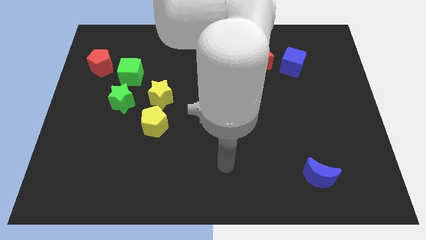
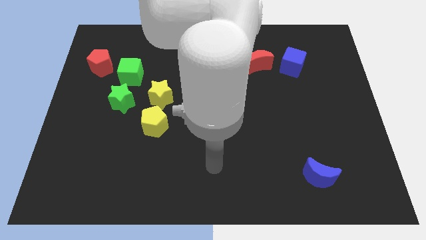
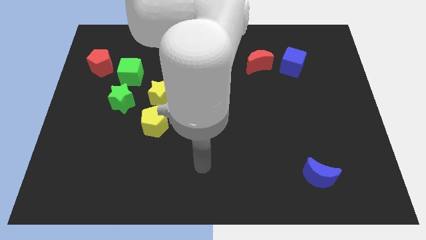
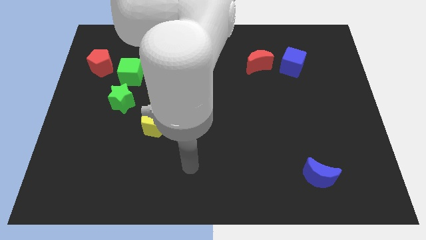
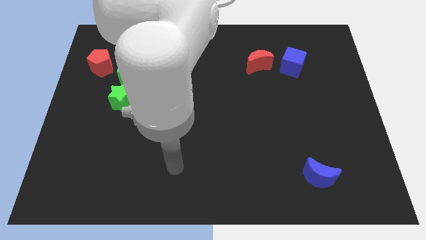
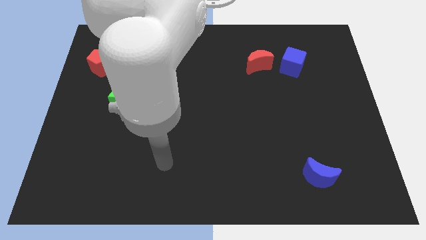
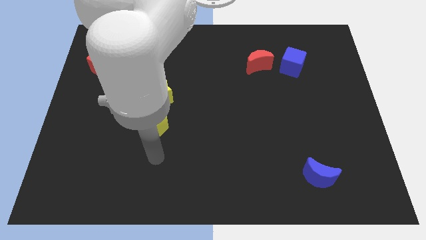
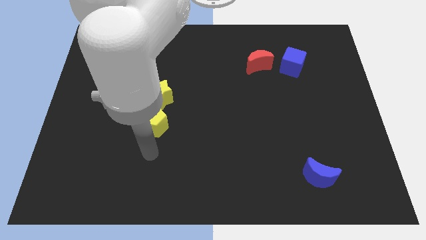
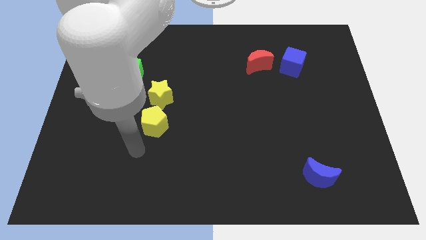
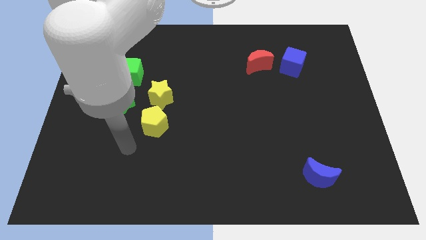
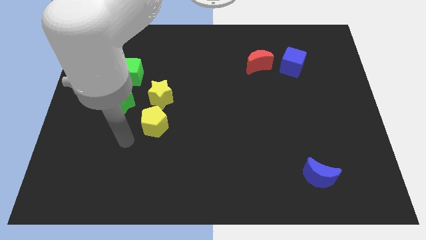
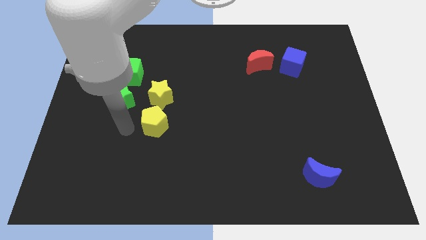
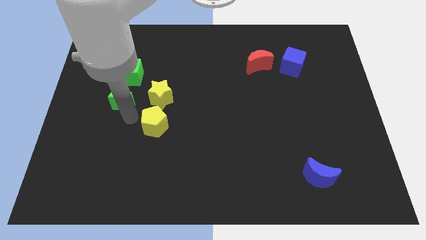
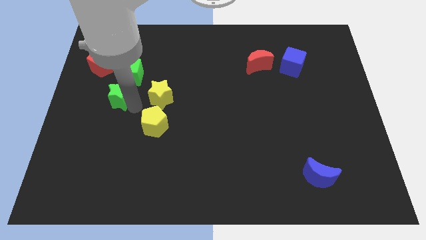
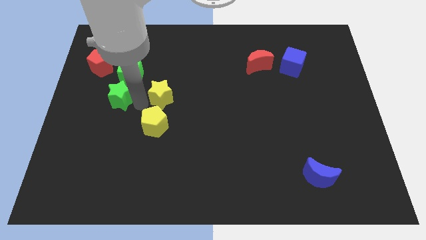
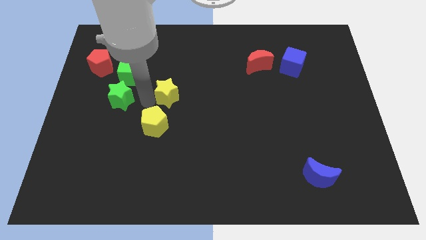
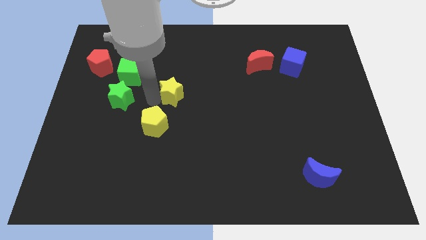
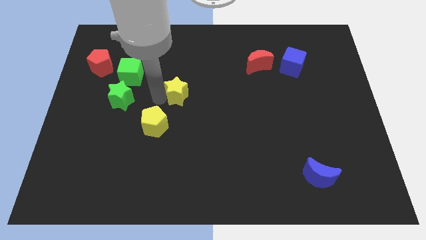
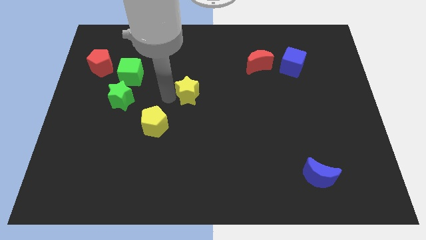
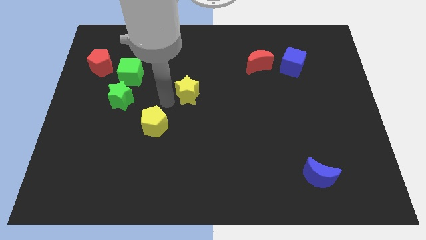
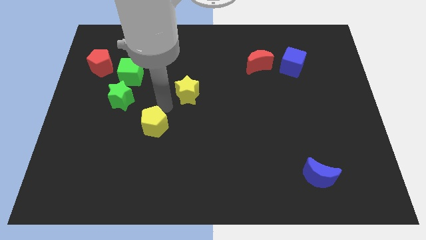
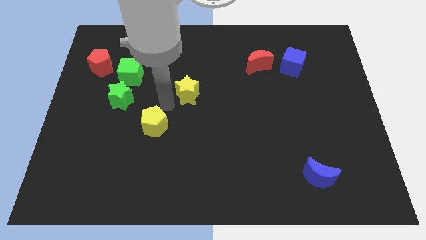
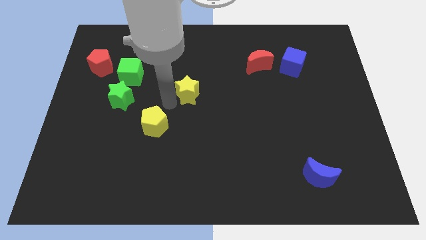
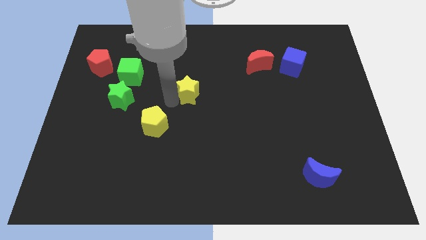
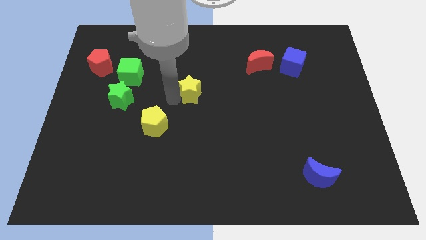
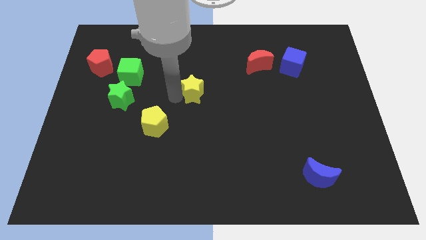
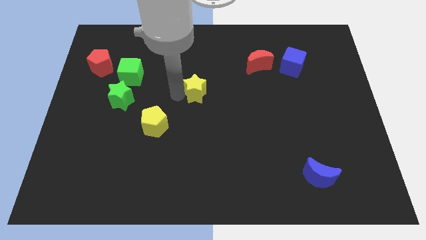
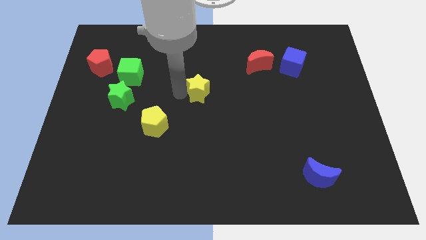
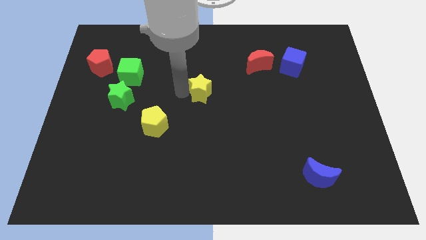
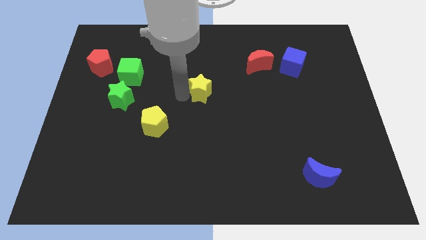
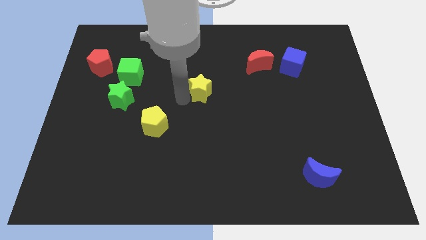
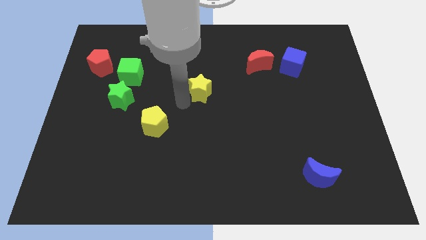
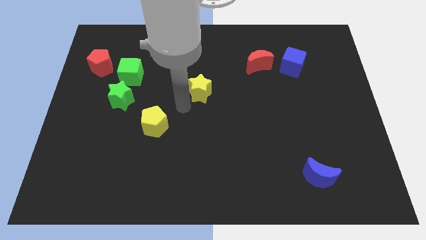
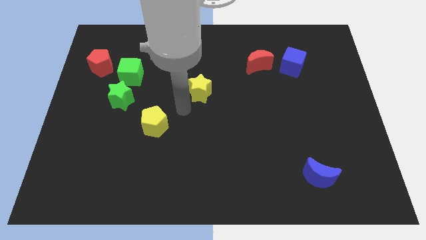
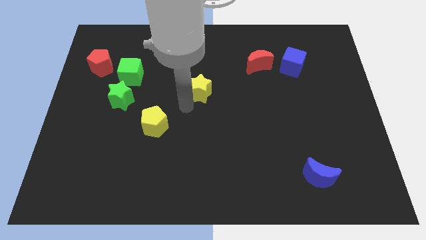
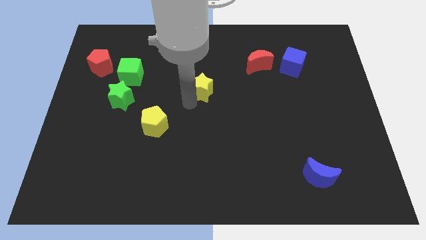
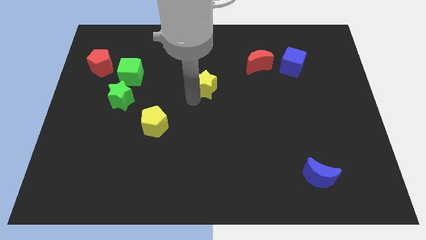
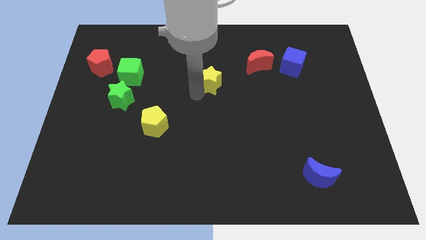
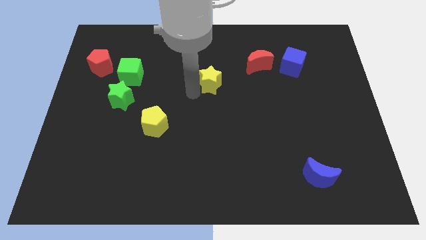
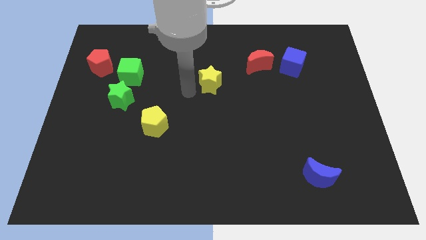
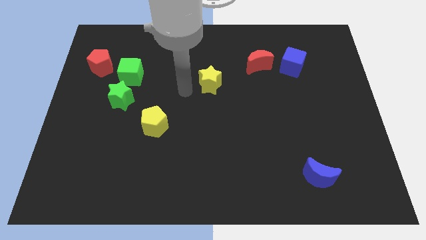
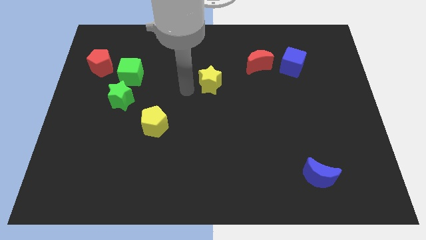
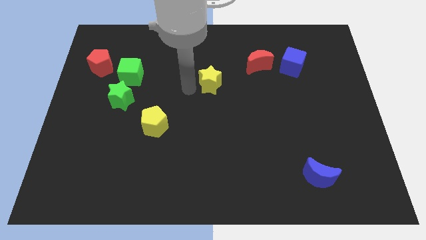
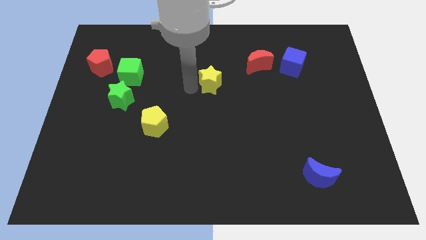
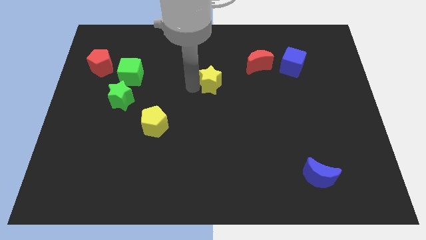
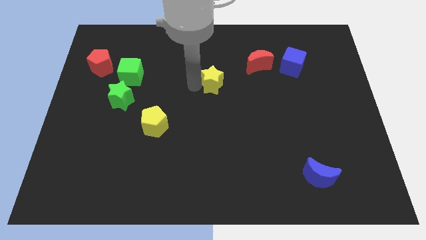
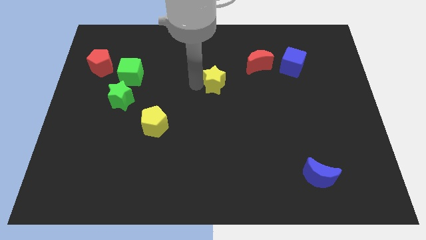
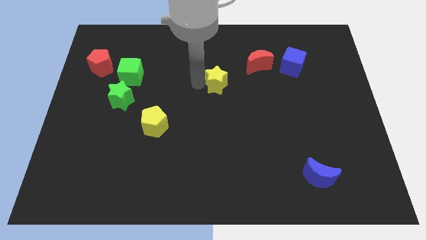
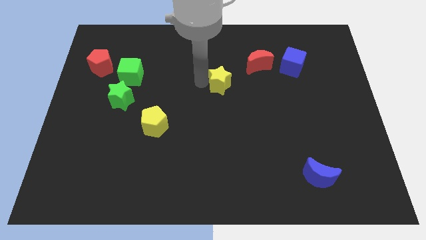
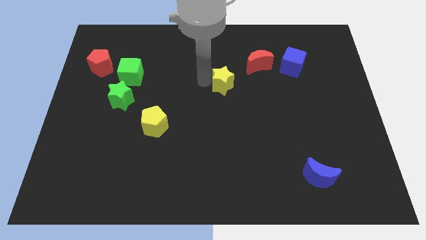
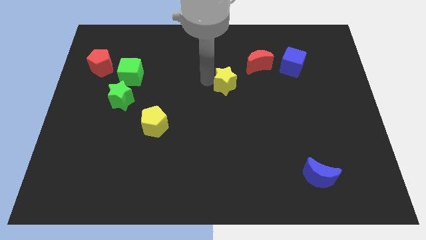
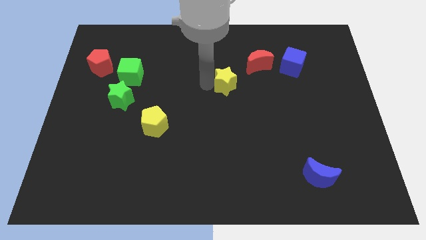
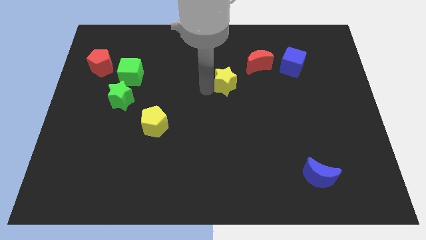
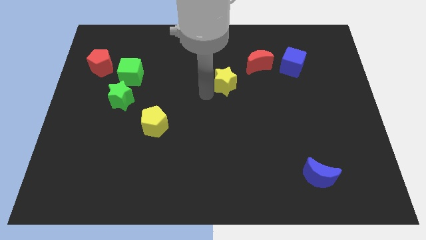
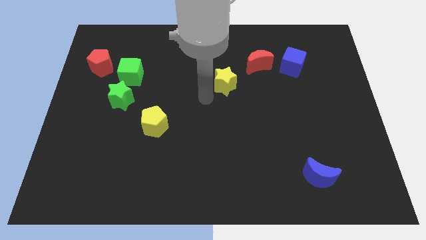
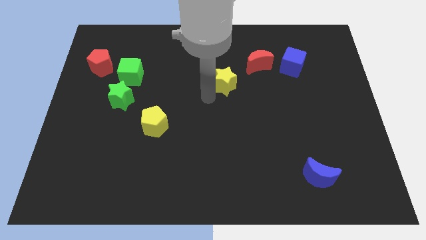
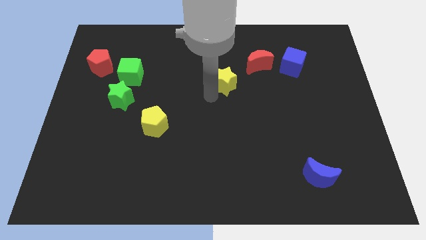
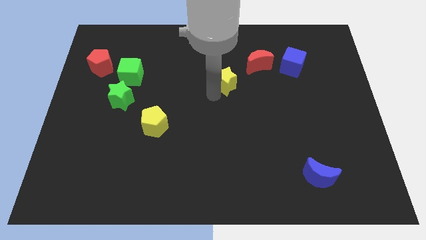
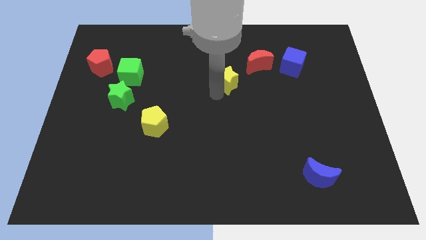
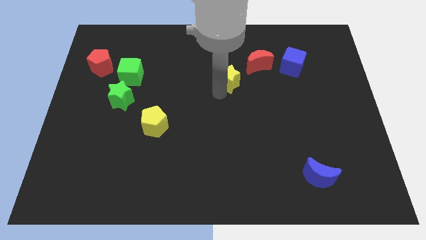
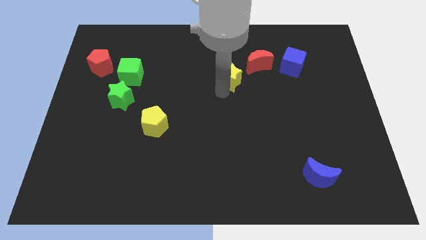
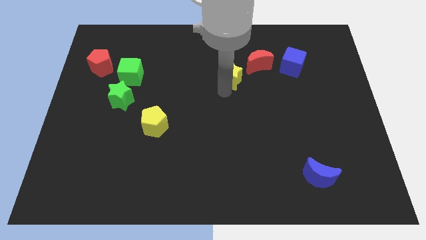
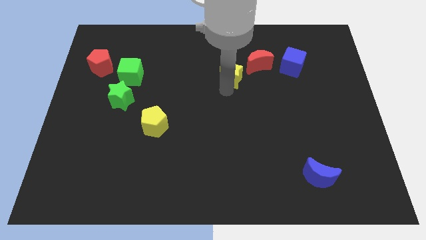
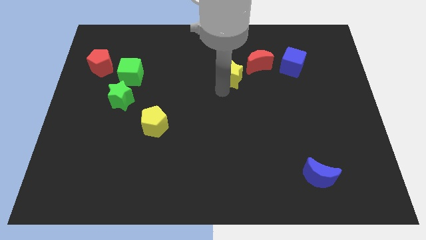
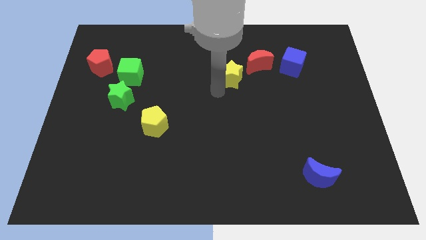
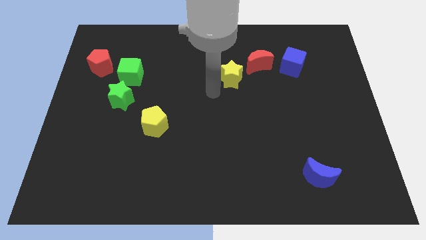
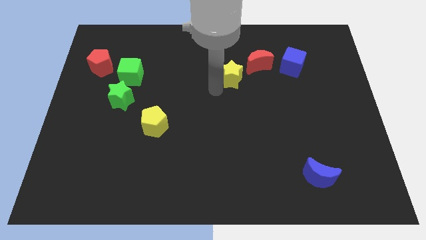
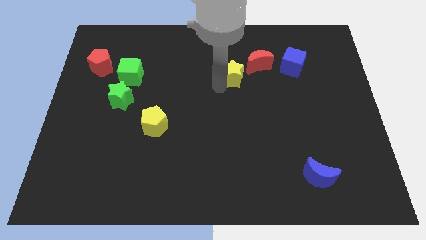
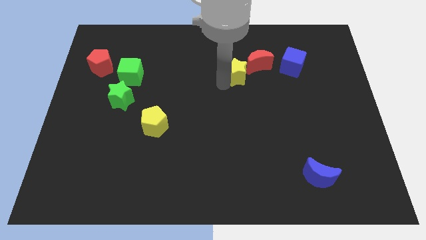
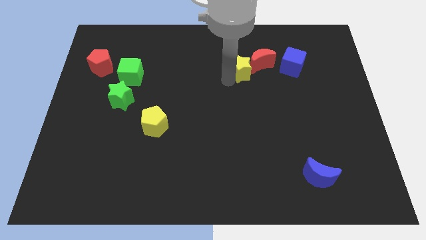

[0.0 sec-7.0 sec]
move the yellow star next to the red moon
